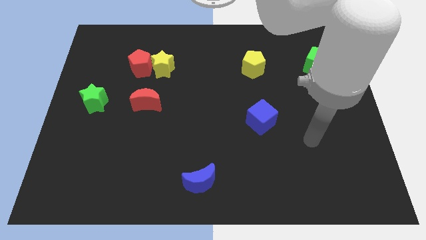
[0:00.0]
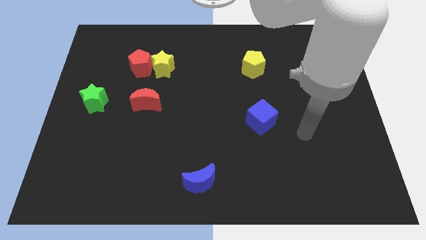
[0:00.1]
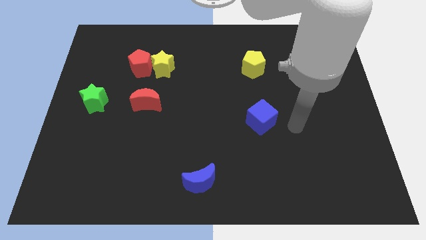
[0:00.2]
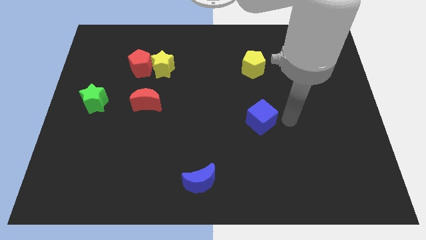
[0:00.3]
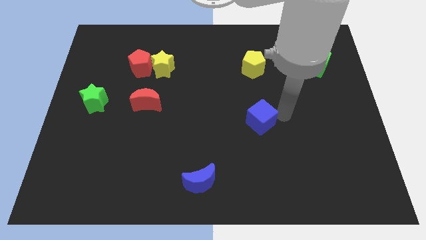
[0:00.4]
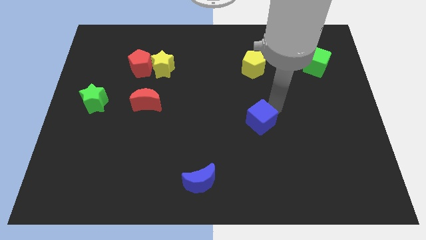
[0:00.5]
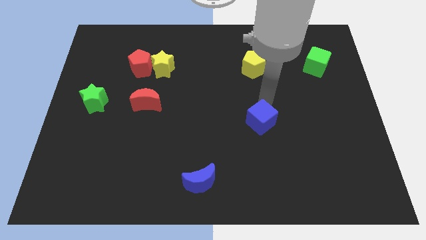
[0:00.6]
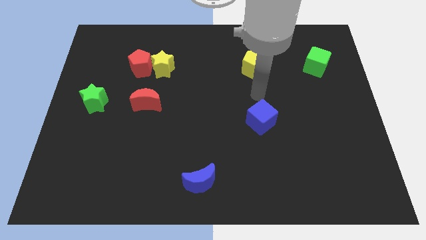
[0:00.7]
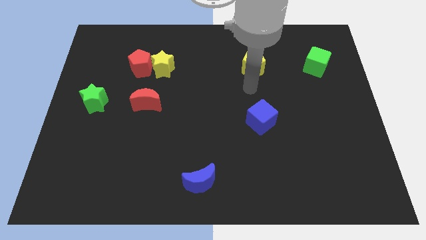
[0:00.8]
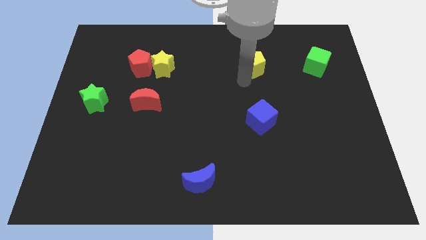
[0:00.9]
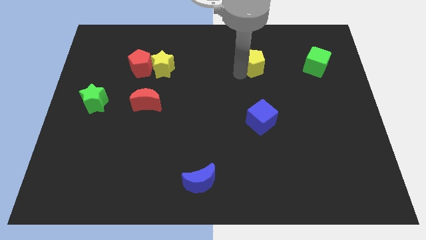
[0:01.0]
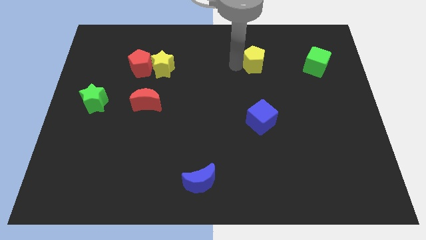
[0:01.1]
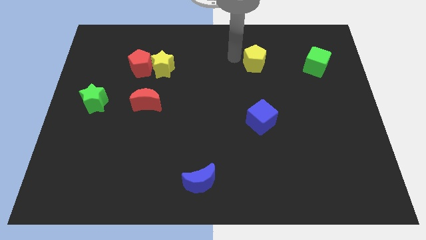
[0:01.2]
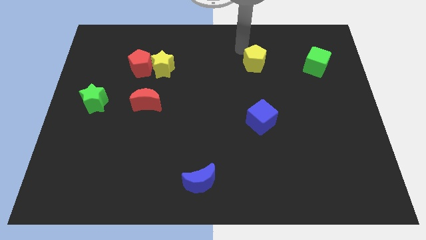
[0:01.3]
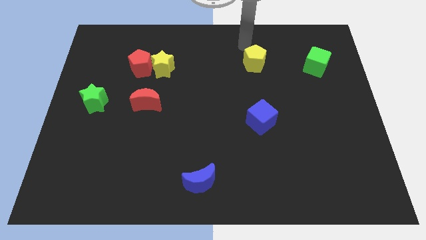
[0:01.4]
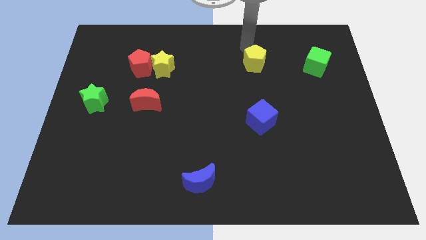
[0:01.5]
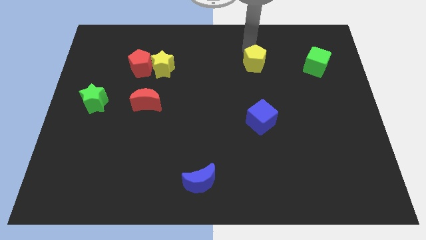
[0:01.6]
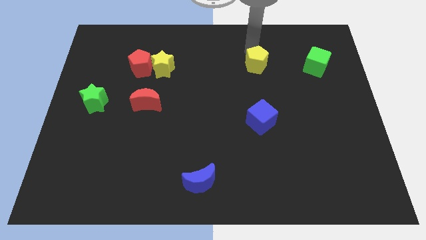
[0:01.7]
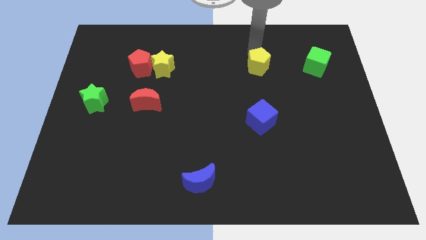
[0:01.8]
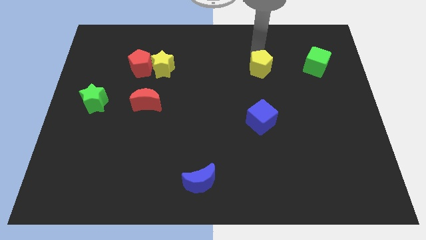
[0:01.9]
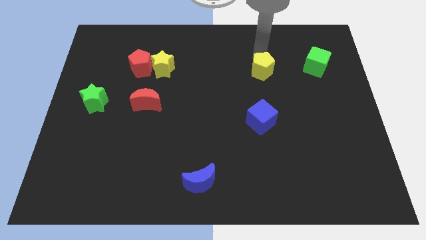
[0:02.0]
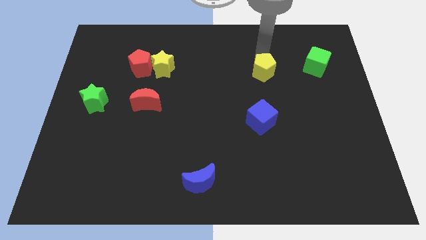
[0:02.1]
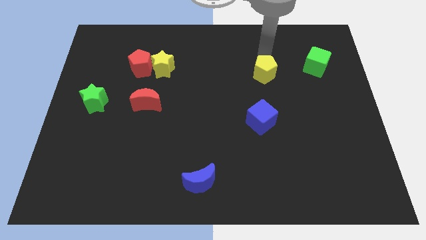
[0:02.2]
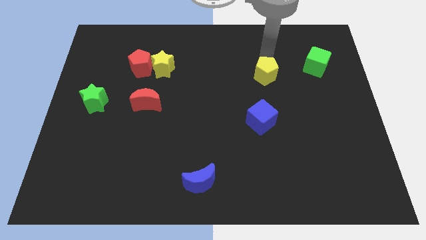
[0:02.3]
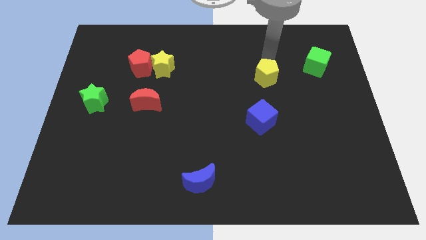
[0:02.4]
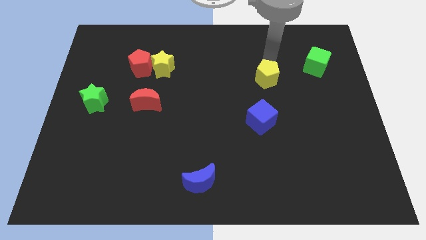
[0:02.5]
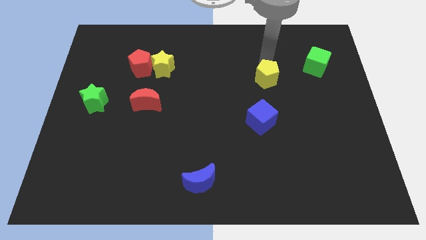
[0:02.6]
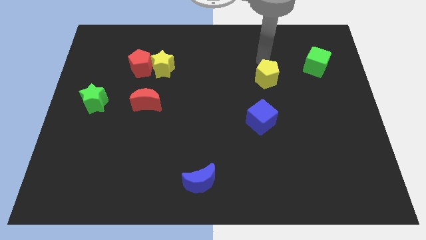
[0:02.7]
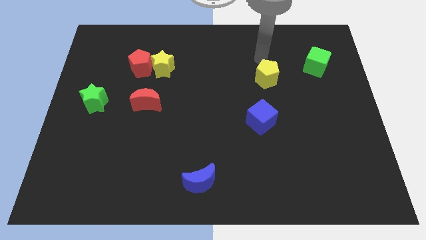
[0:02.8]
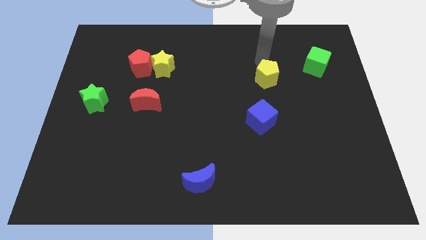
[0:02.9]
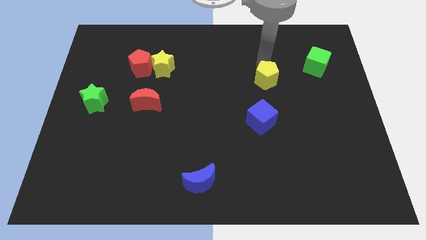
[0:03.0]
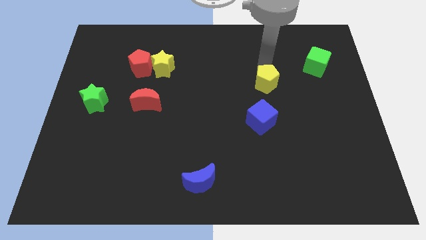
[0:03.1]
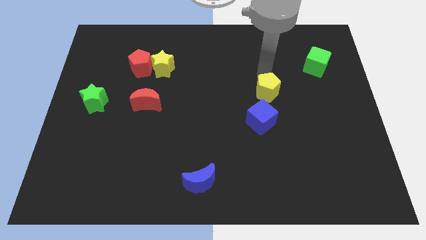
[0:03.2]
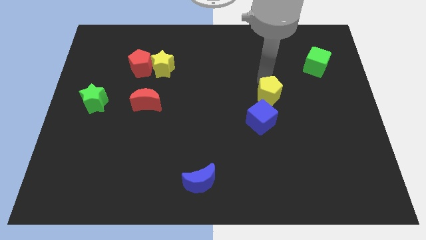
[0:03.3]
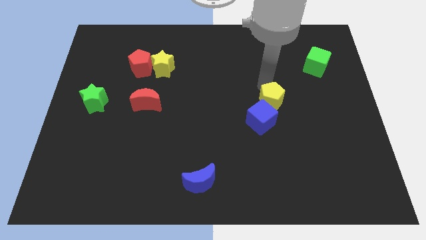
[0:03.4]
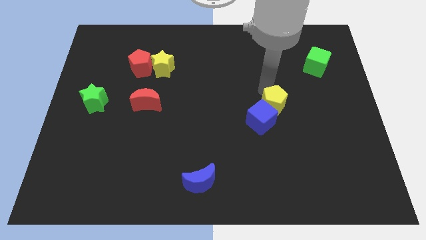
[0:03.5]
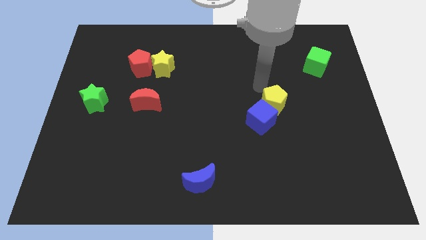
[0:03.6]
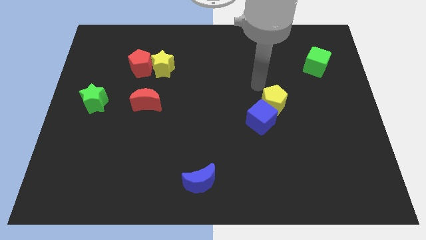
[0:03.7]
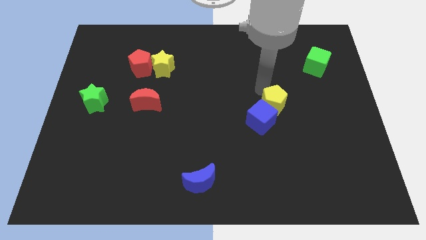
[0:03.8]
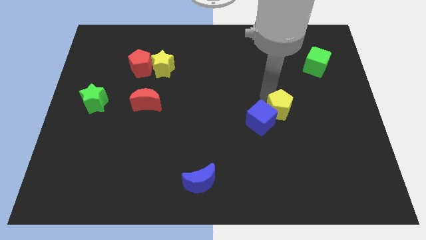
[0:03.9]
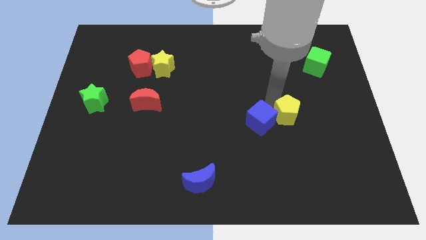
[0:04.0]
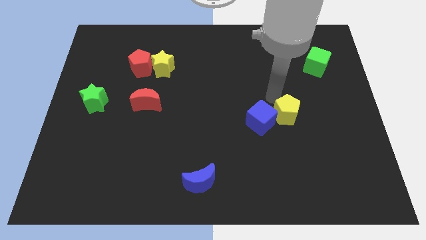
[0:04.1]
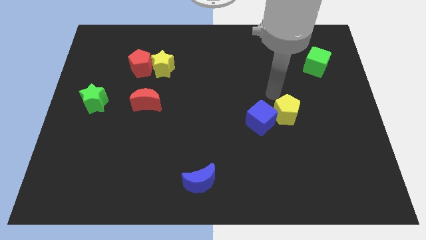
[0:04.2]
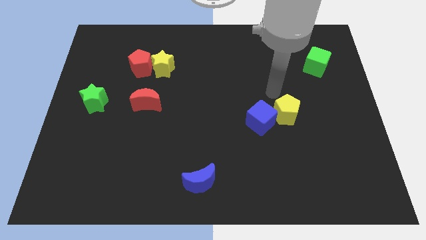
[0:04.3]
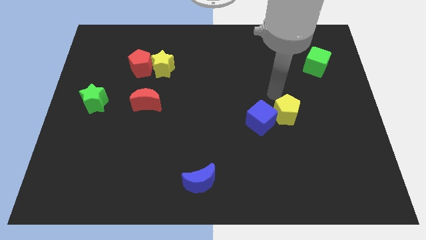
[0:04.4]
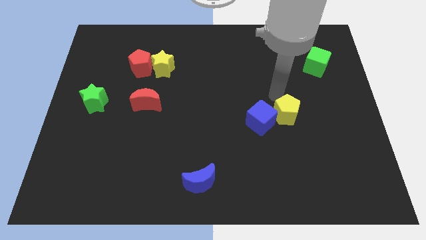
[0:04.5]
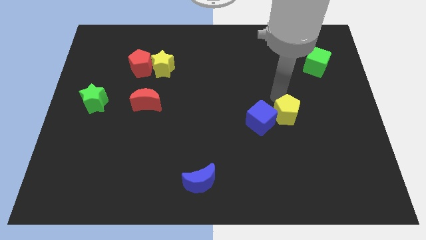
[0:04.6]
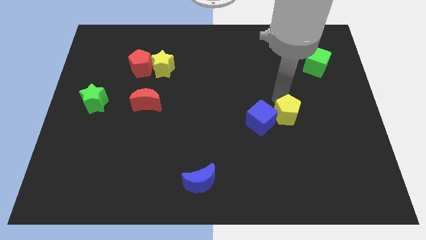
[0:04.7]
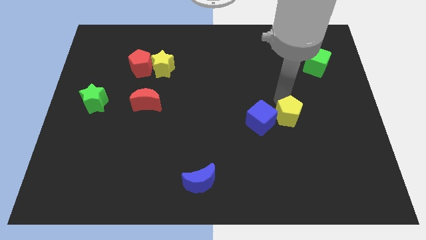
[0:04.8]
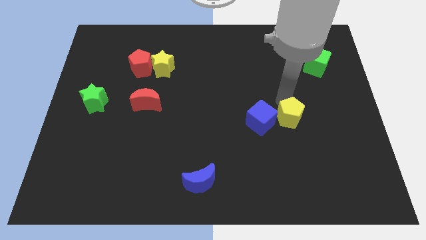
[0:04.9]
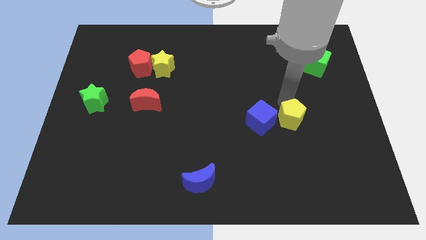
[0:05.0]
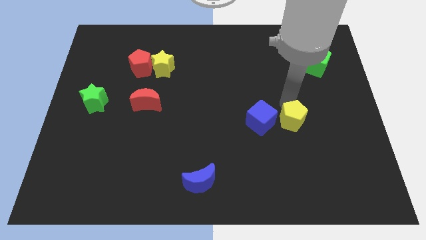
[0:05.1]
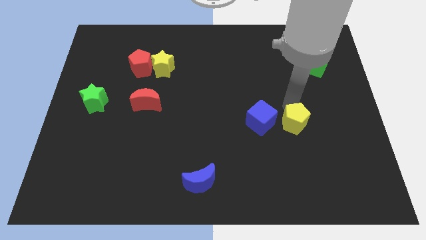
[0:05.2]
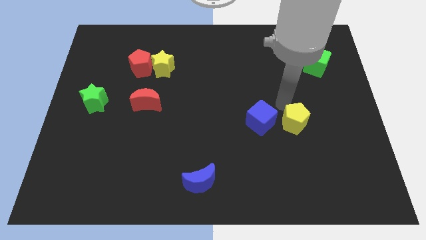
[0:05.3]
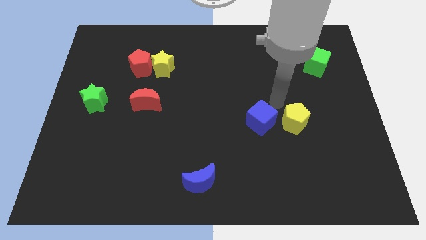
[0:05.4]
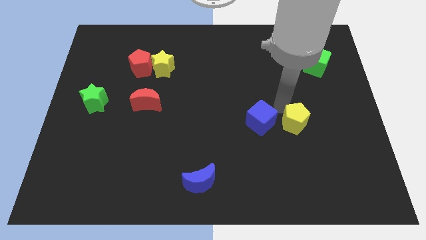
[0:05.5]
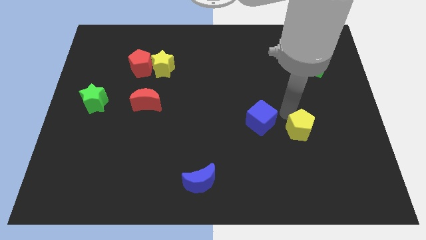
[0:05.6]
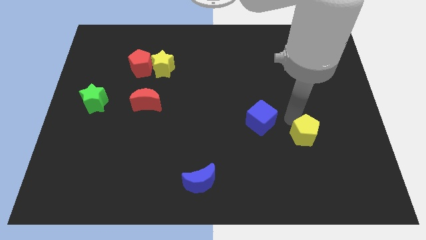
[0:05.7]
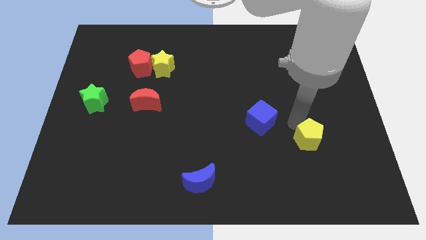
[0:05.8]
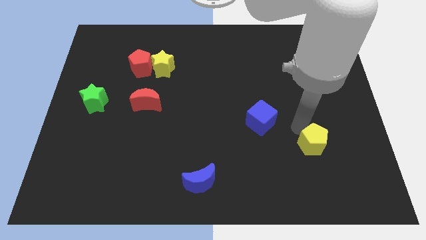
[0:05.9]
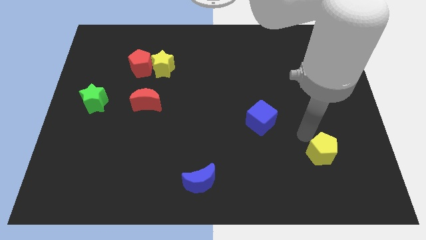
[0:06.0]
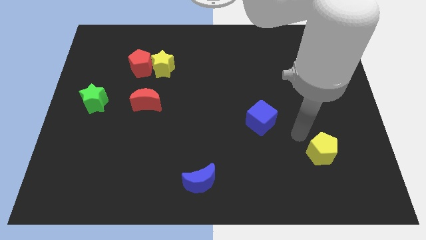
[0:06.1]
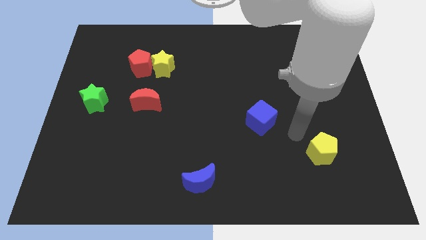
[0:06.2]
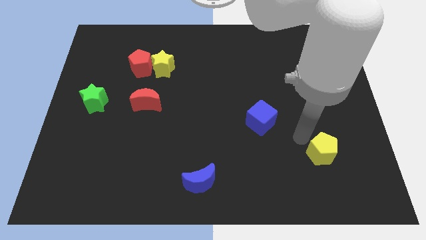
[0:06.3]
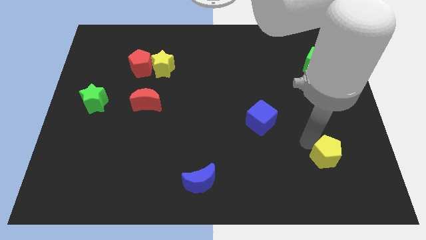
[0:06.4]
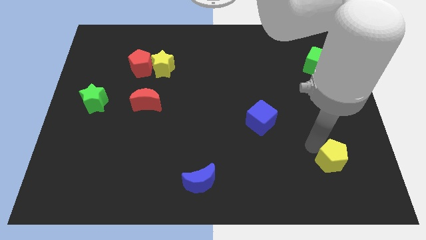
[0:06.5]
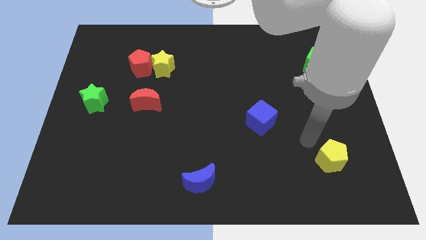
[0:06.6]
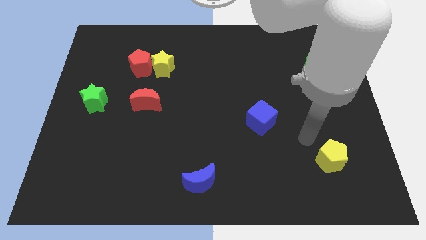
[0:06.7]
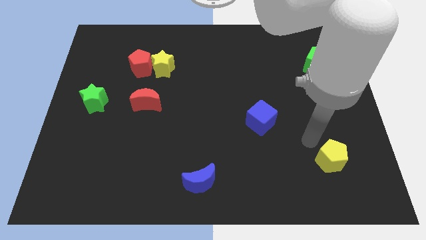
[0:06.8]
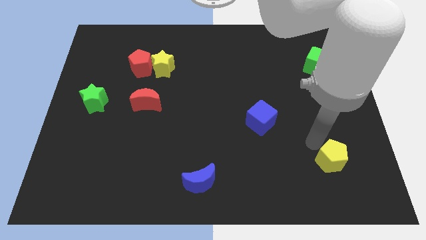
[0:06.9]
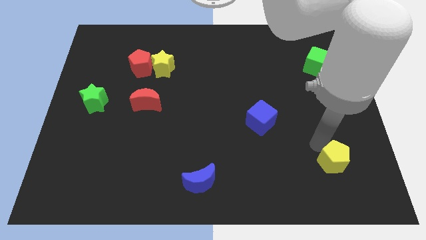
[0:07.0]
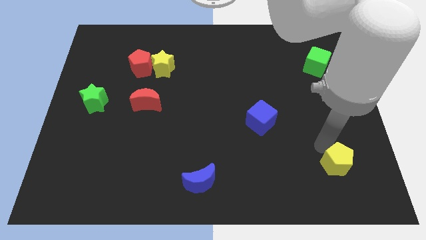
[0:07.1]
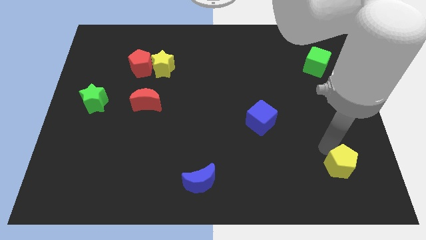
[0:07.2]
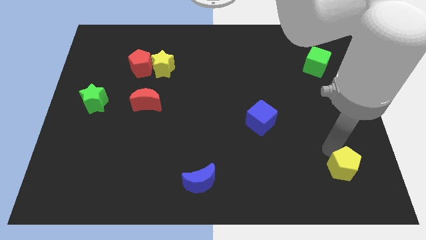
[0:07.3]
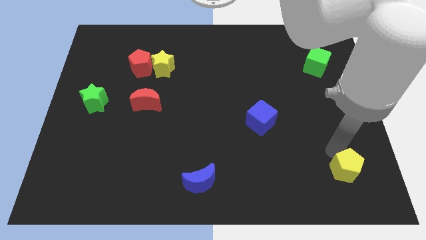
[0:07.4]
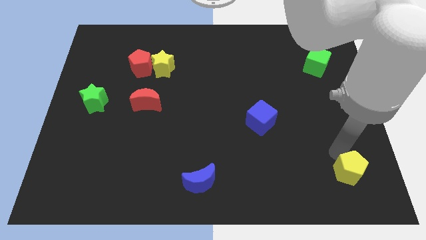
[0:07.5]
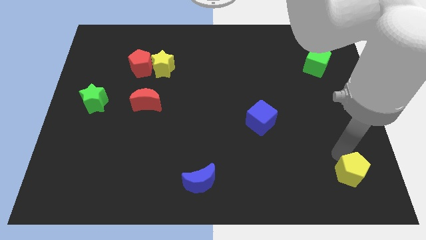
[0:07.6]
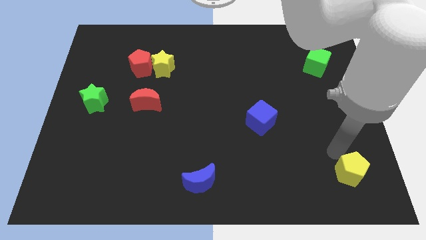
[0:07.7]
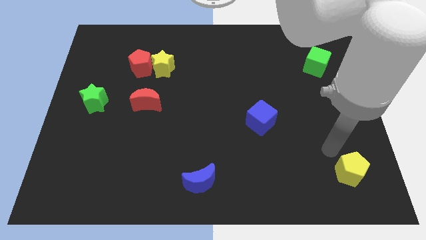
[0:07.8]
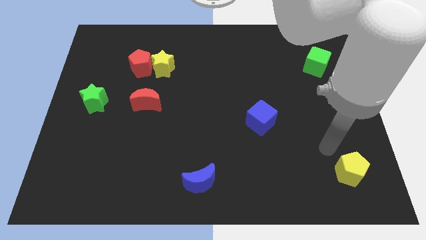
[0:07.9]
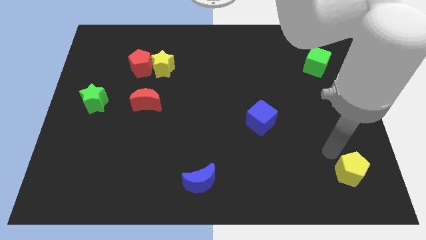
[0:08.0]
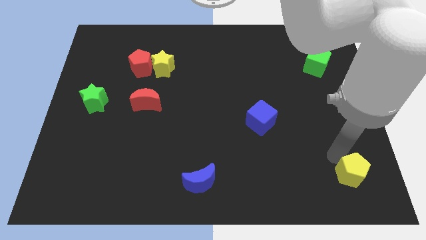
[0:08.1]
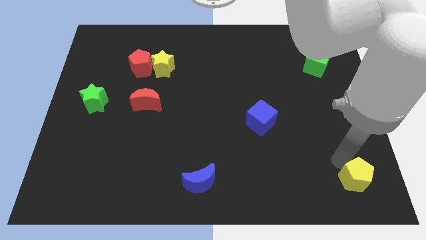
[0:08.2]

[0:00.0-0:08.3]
slide the yellow pentagon to the lower right corner
